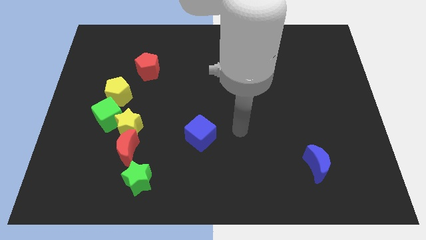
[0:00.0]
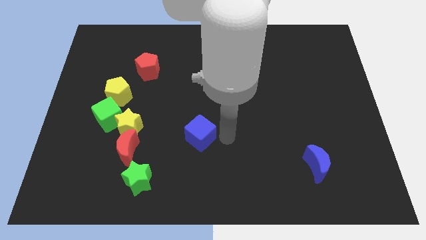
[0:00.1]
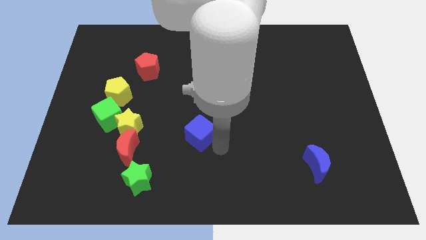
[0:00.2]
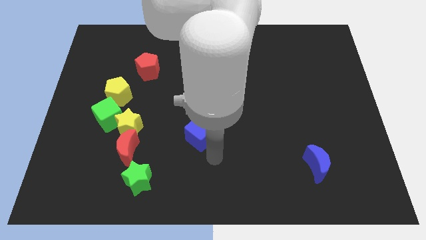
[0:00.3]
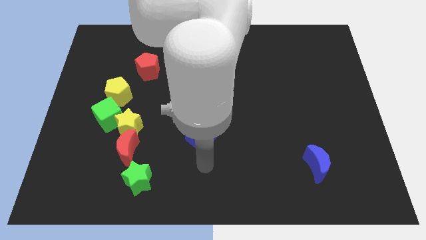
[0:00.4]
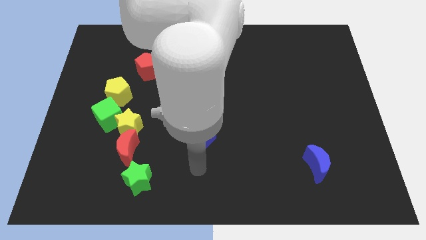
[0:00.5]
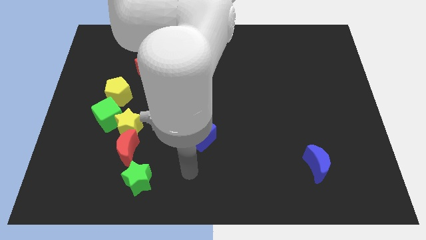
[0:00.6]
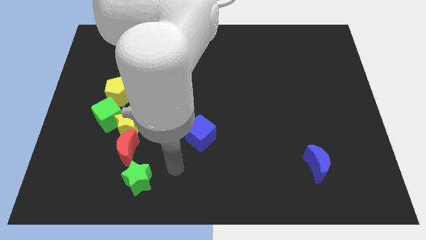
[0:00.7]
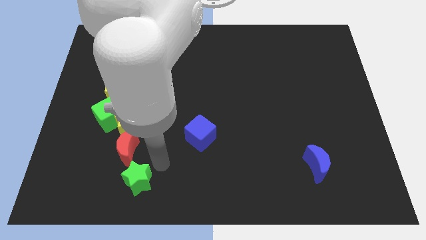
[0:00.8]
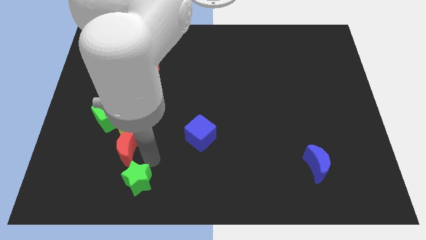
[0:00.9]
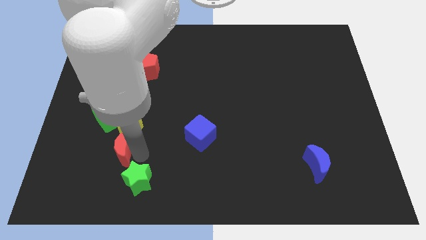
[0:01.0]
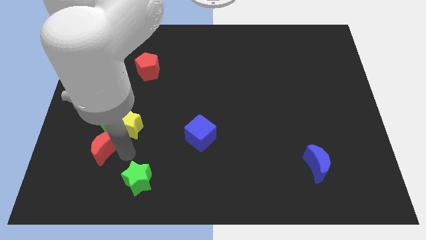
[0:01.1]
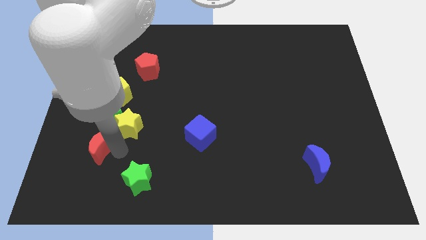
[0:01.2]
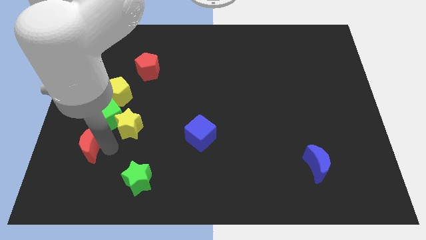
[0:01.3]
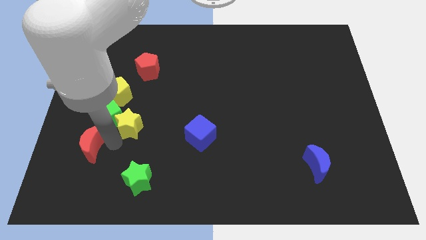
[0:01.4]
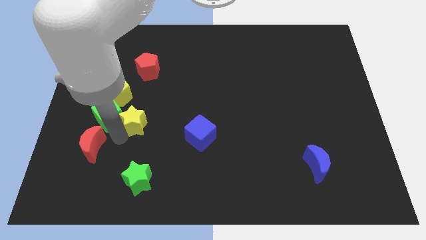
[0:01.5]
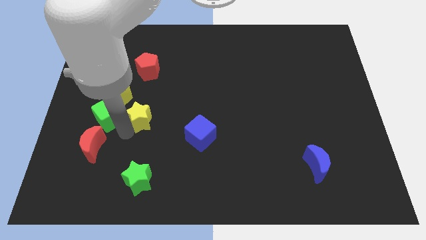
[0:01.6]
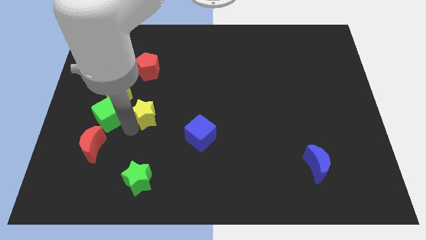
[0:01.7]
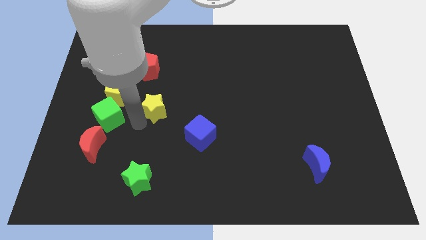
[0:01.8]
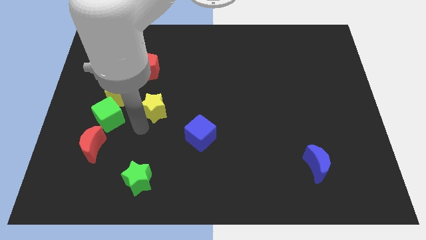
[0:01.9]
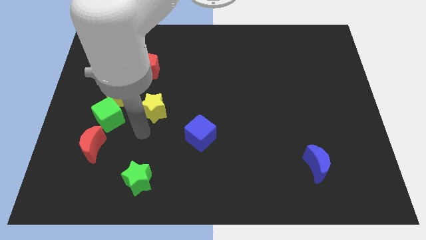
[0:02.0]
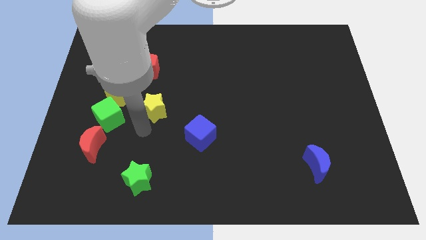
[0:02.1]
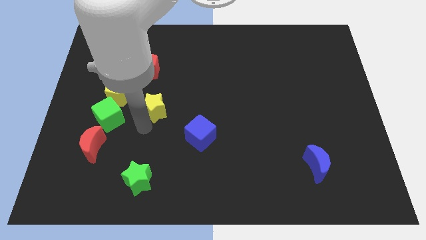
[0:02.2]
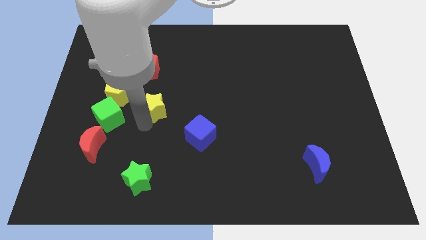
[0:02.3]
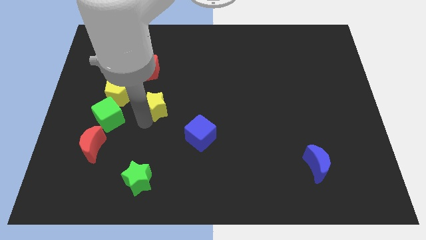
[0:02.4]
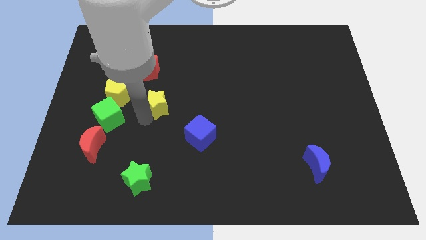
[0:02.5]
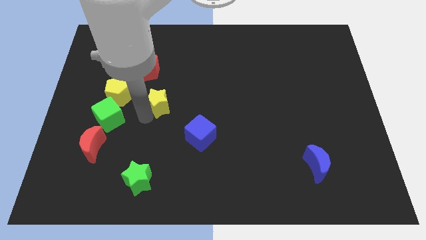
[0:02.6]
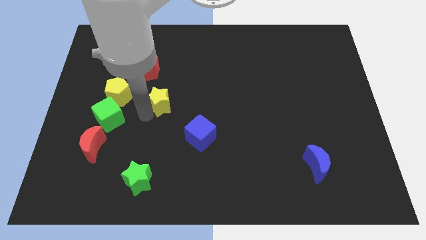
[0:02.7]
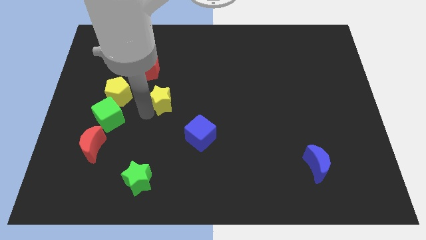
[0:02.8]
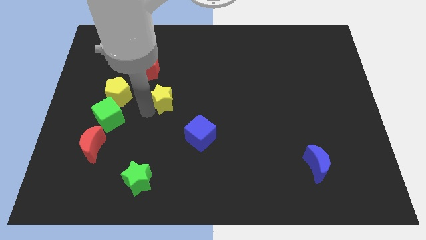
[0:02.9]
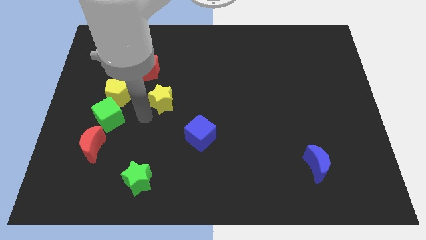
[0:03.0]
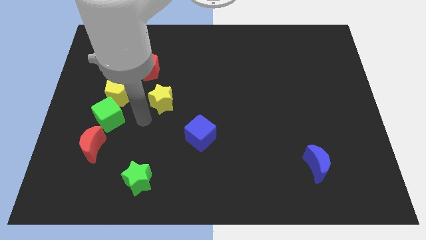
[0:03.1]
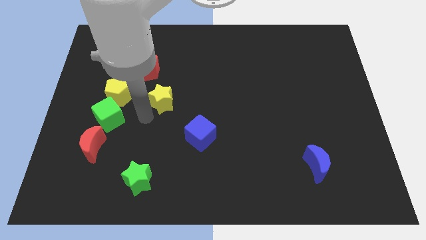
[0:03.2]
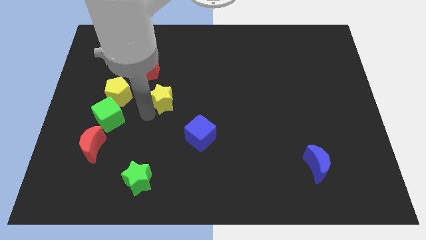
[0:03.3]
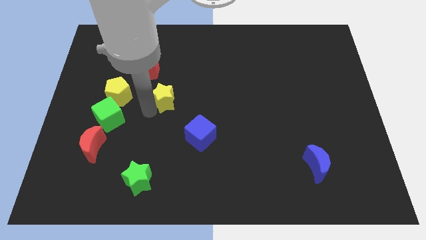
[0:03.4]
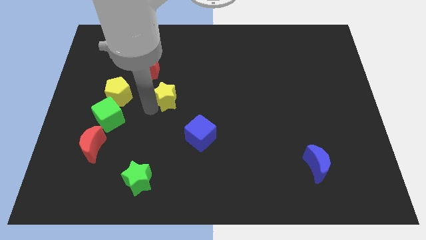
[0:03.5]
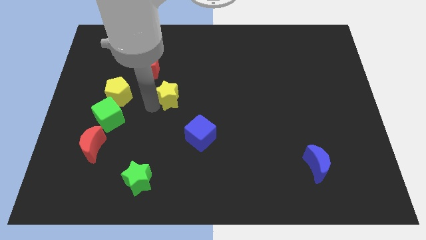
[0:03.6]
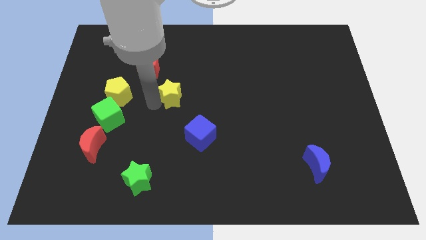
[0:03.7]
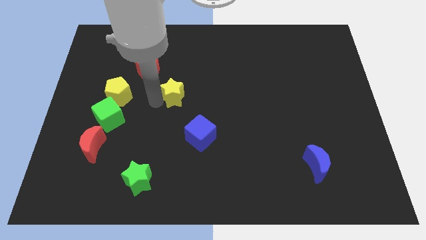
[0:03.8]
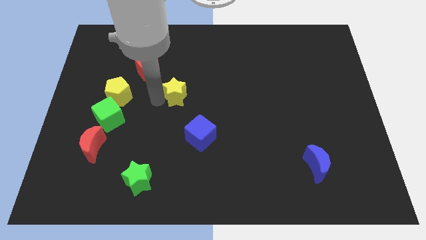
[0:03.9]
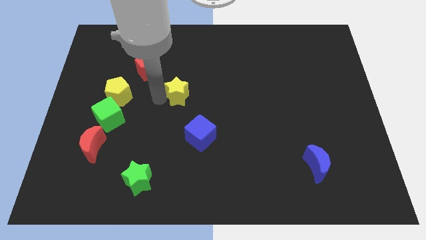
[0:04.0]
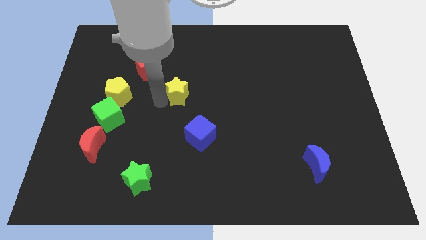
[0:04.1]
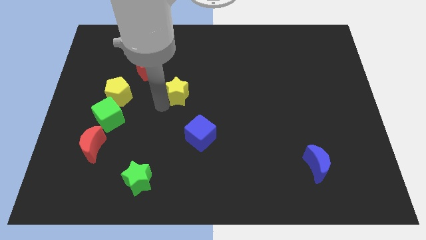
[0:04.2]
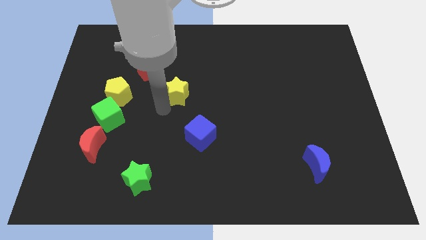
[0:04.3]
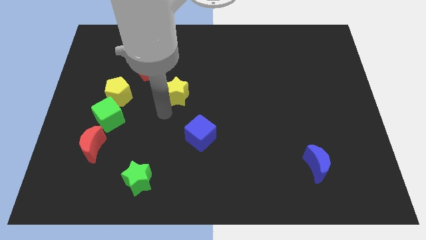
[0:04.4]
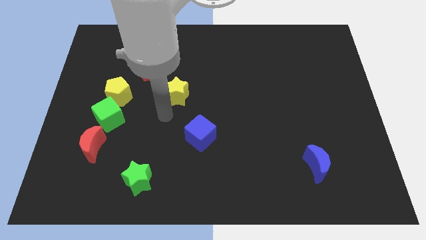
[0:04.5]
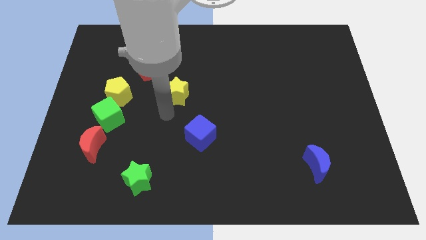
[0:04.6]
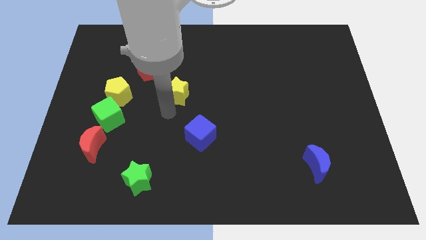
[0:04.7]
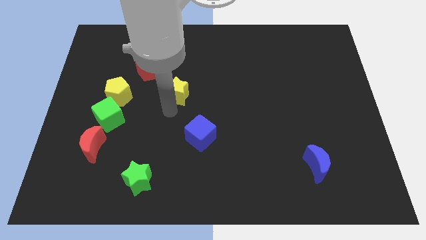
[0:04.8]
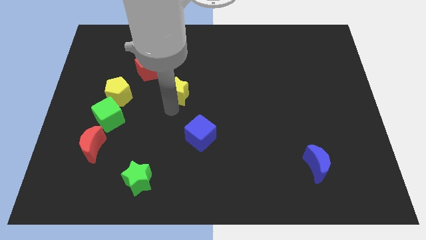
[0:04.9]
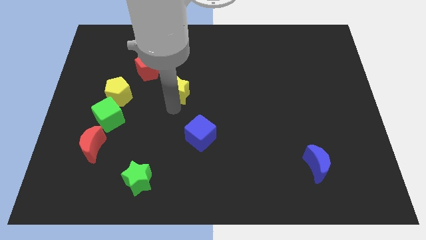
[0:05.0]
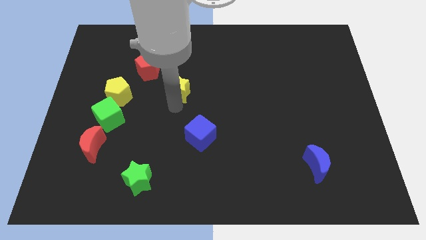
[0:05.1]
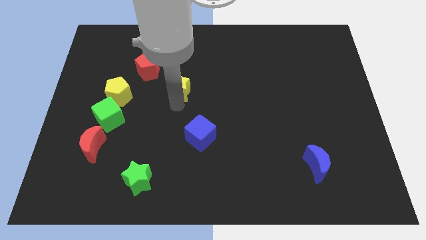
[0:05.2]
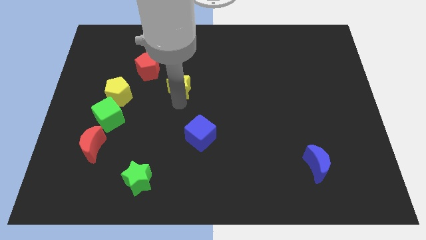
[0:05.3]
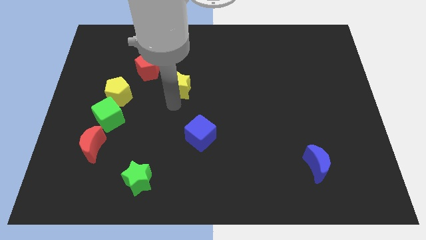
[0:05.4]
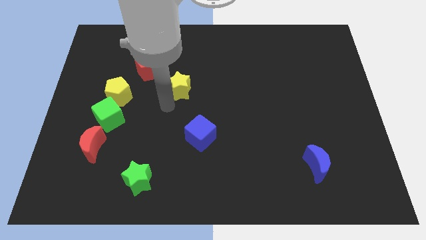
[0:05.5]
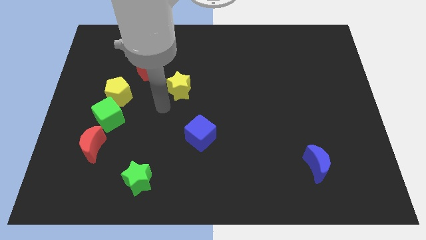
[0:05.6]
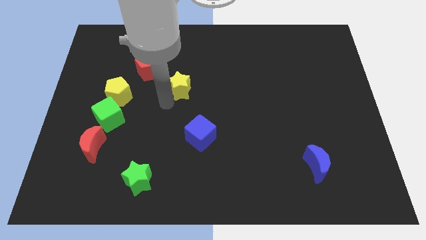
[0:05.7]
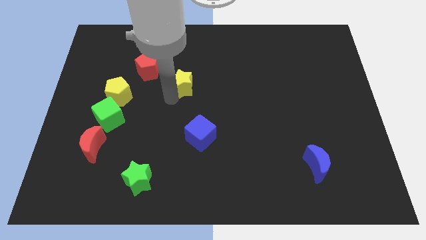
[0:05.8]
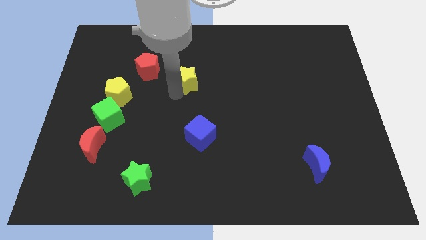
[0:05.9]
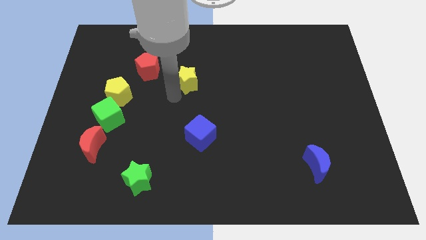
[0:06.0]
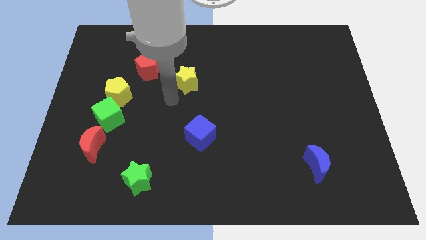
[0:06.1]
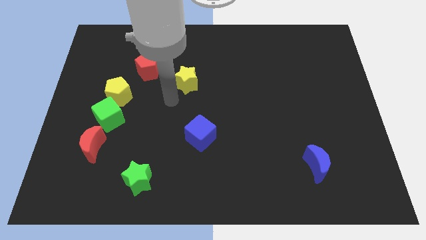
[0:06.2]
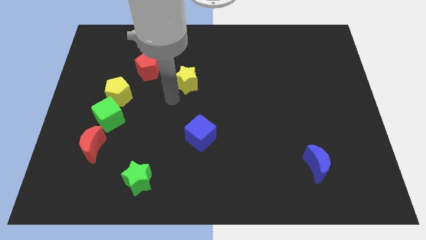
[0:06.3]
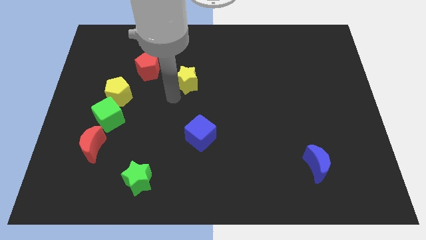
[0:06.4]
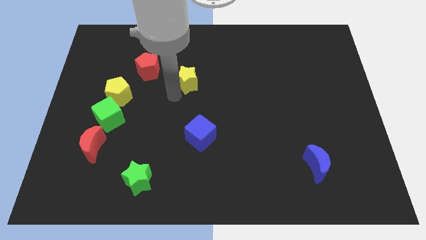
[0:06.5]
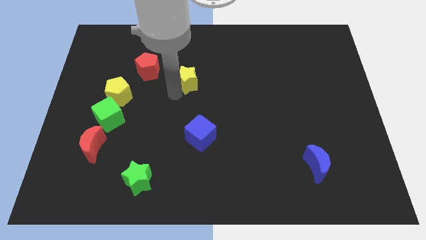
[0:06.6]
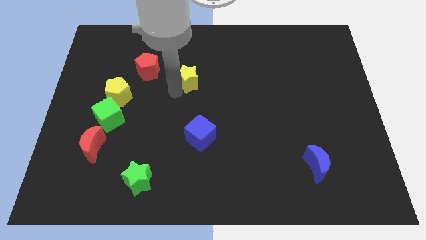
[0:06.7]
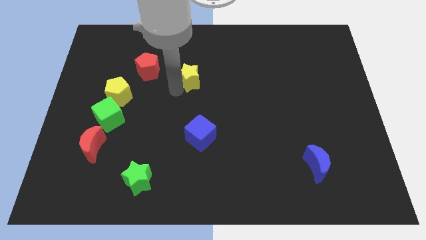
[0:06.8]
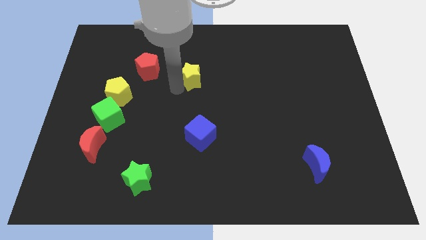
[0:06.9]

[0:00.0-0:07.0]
move the yellow star diagonally upwards and to the right

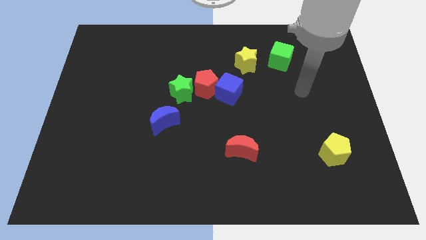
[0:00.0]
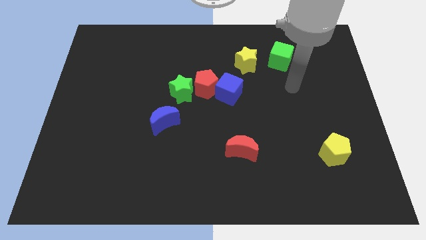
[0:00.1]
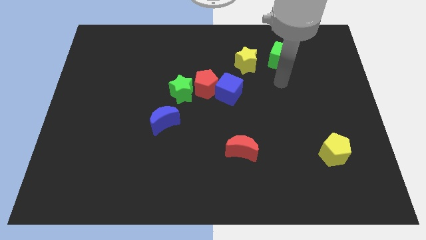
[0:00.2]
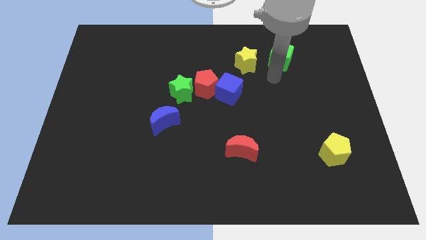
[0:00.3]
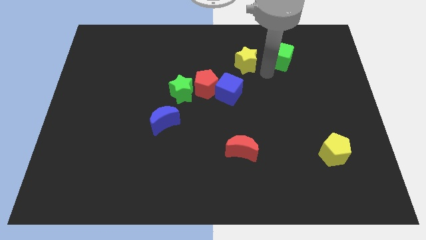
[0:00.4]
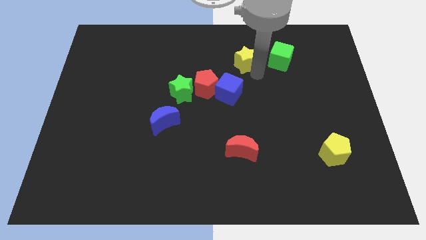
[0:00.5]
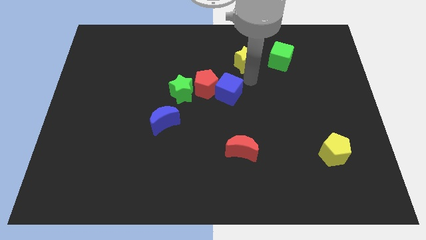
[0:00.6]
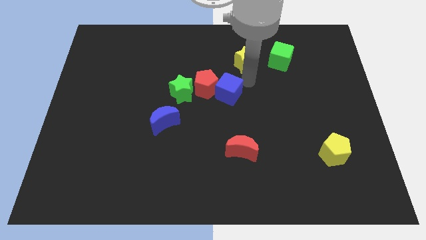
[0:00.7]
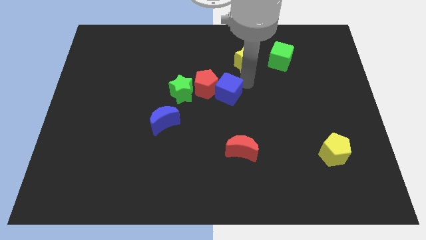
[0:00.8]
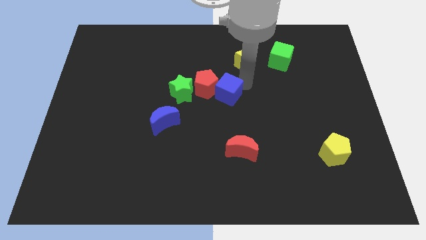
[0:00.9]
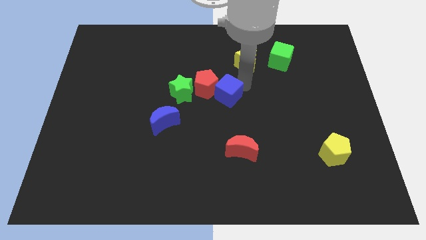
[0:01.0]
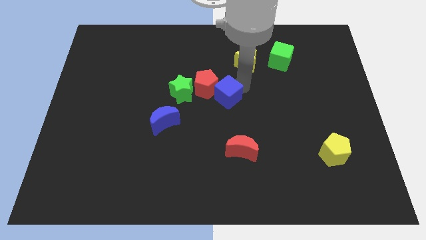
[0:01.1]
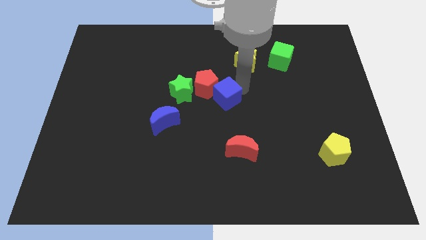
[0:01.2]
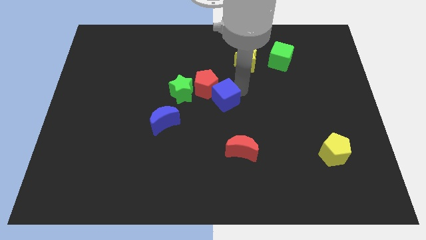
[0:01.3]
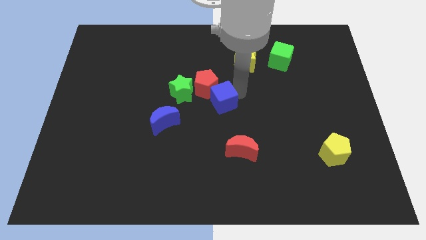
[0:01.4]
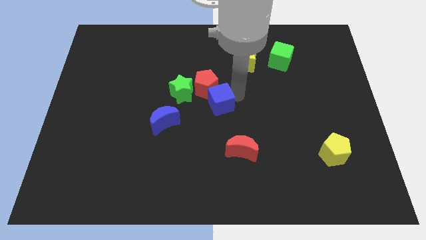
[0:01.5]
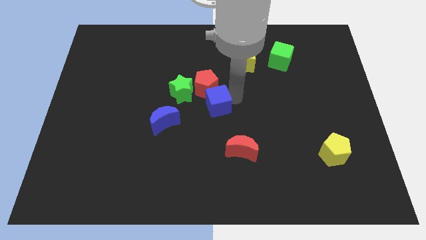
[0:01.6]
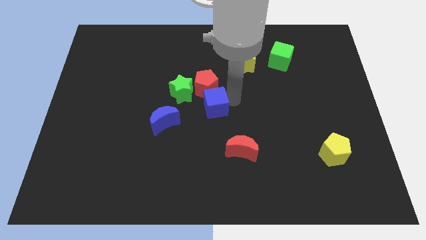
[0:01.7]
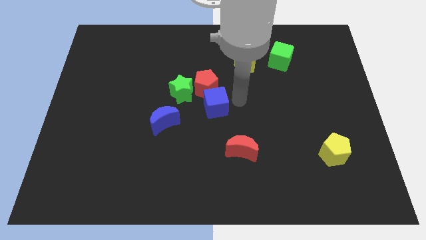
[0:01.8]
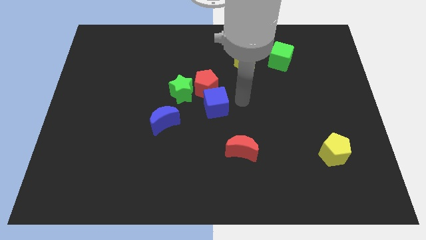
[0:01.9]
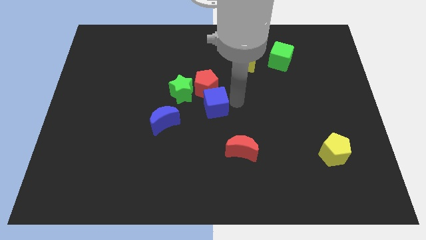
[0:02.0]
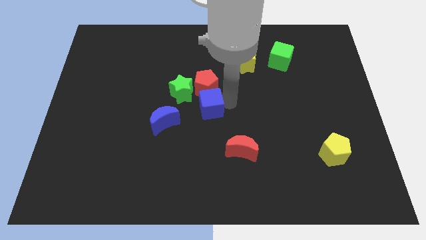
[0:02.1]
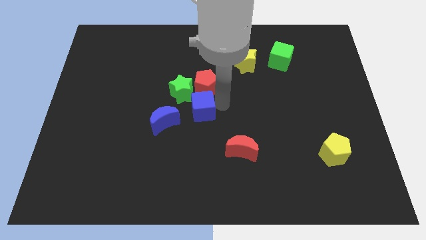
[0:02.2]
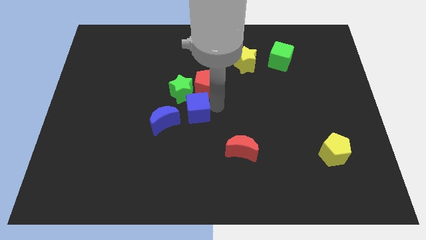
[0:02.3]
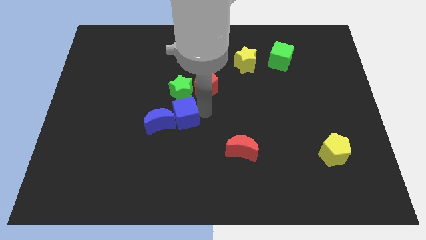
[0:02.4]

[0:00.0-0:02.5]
slightly move the blue cube to the left
